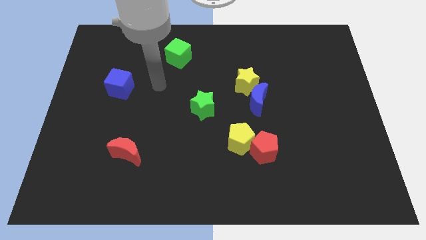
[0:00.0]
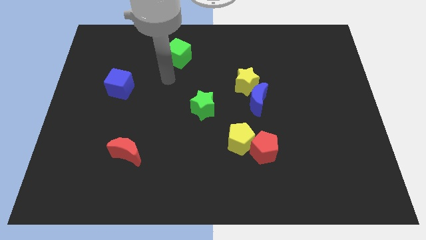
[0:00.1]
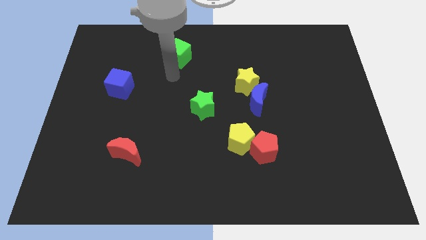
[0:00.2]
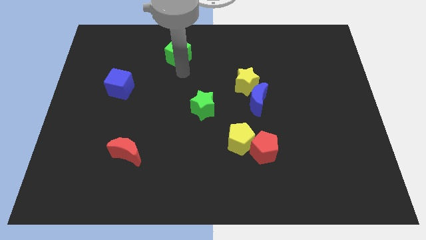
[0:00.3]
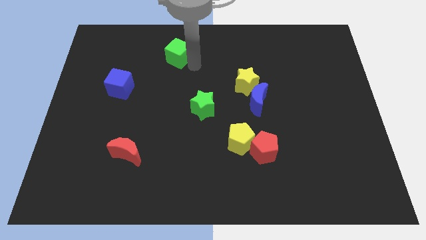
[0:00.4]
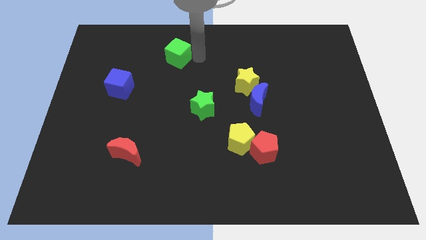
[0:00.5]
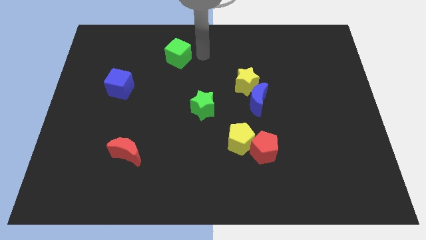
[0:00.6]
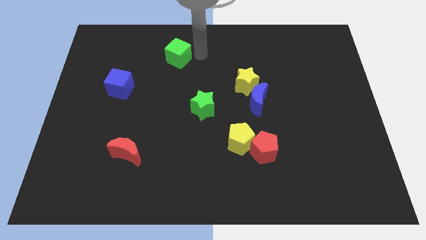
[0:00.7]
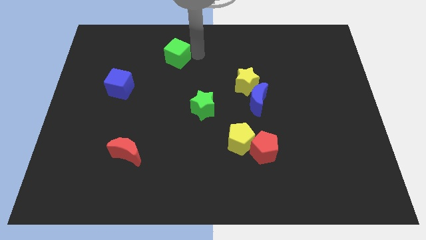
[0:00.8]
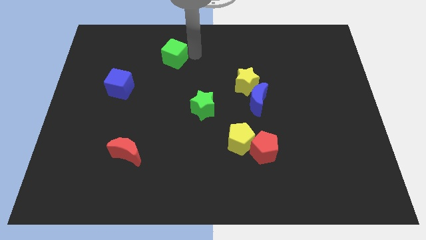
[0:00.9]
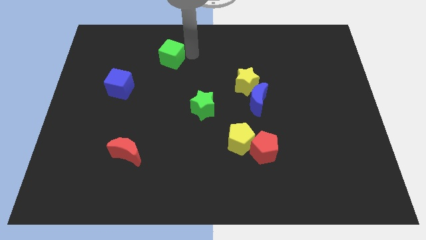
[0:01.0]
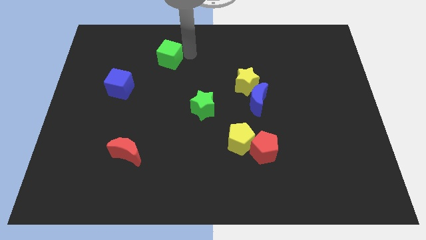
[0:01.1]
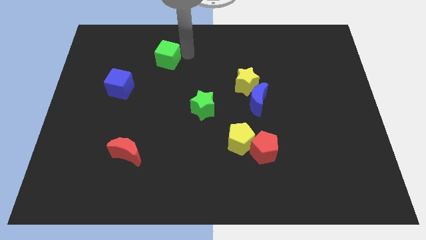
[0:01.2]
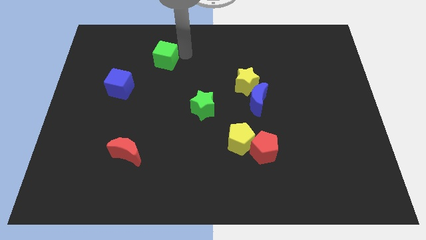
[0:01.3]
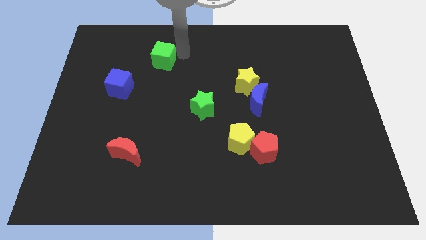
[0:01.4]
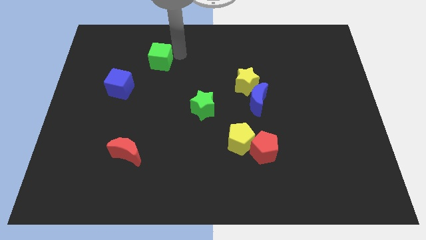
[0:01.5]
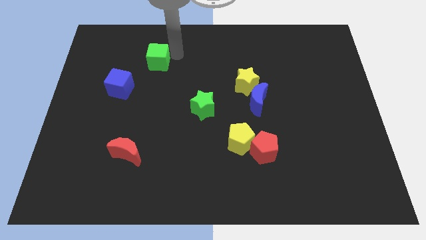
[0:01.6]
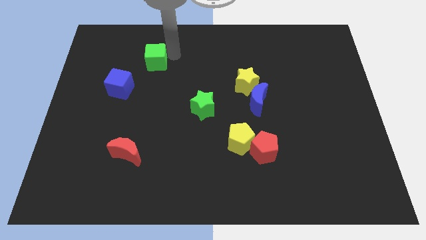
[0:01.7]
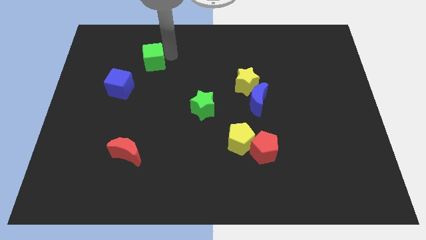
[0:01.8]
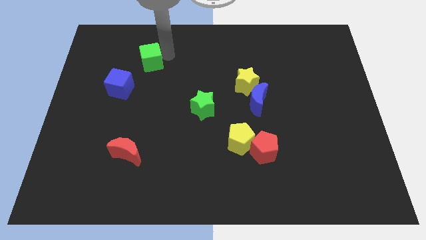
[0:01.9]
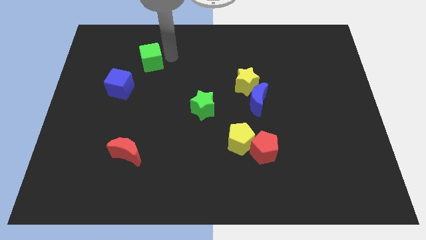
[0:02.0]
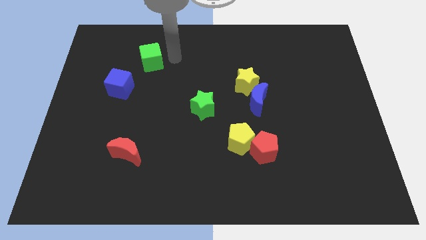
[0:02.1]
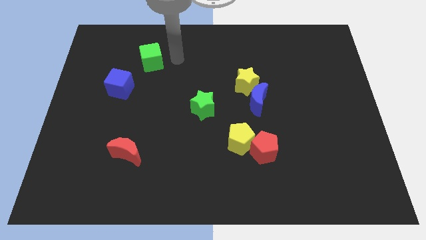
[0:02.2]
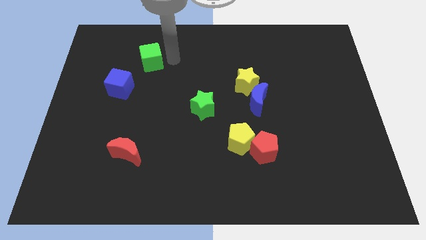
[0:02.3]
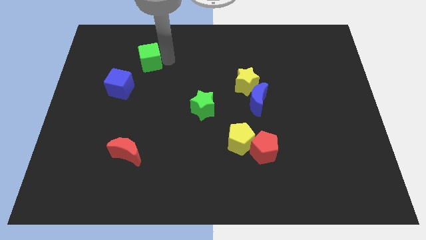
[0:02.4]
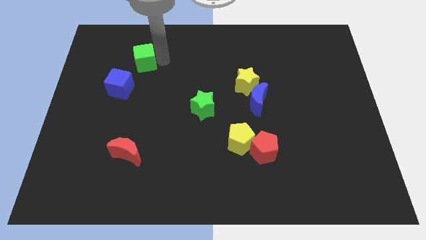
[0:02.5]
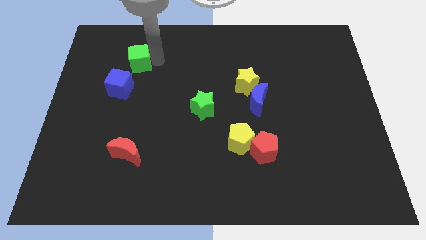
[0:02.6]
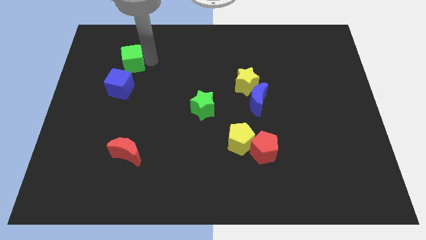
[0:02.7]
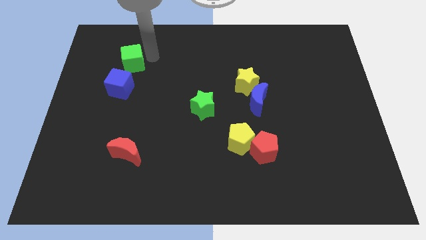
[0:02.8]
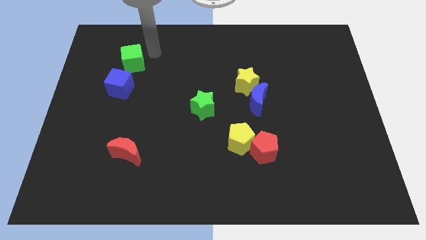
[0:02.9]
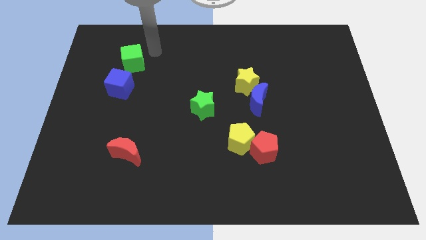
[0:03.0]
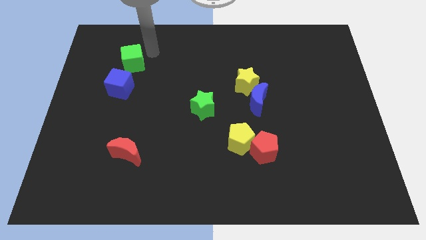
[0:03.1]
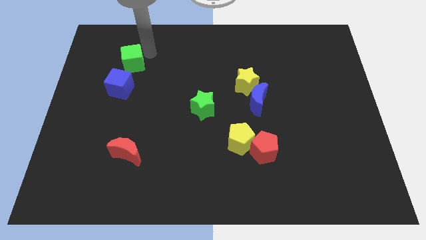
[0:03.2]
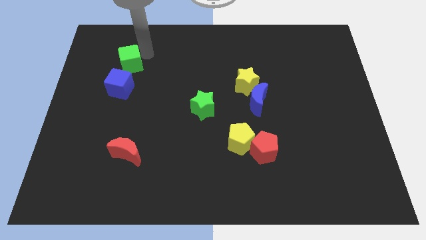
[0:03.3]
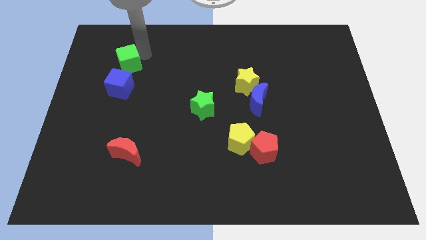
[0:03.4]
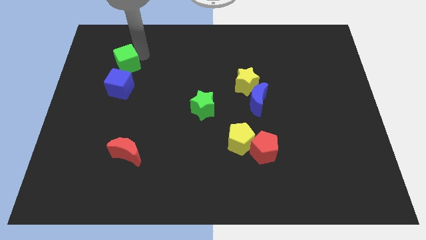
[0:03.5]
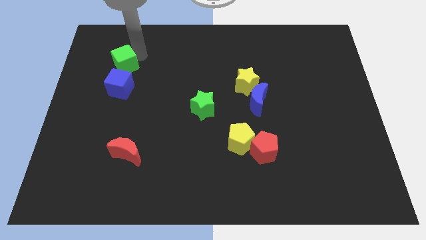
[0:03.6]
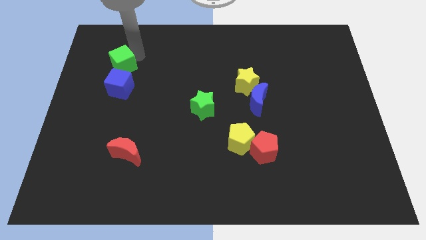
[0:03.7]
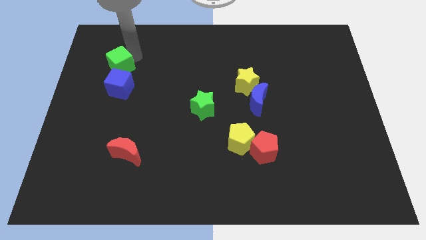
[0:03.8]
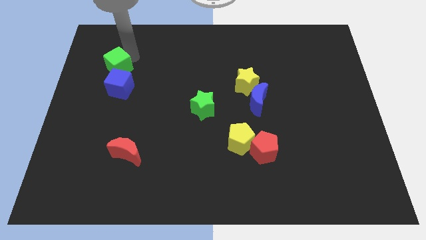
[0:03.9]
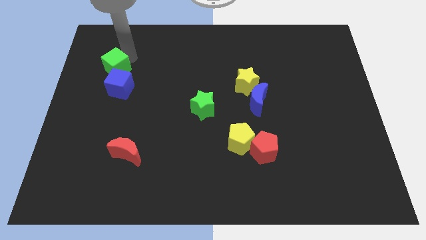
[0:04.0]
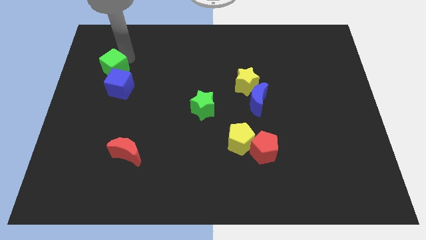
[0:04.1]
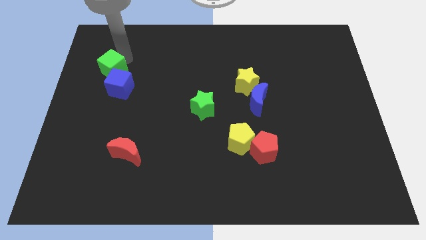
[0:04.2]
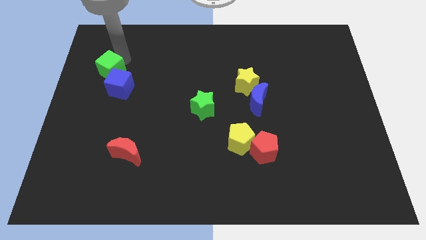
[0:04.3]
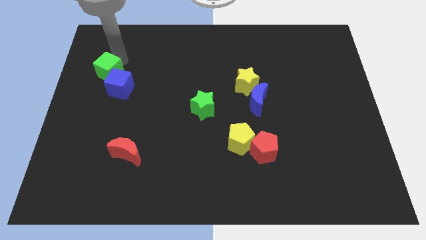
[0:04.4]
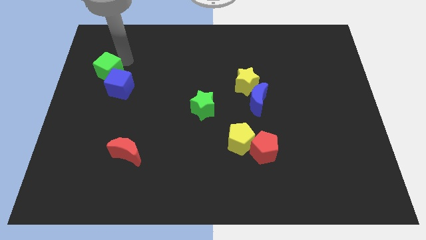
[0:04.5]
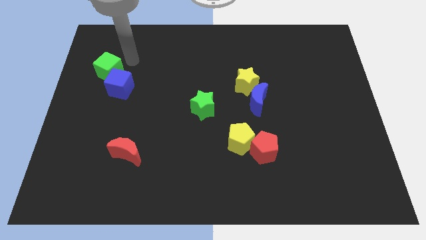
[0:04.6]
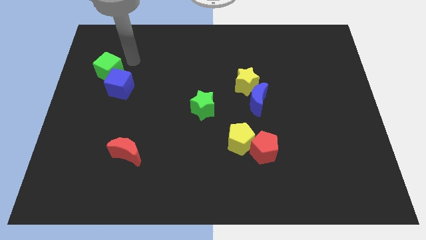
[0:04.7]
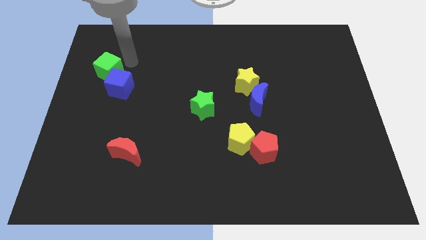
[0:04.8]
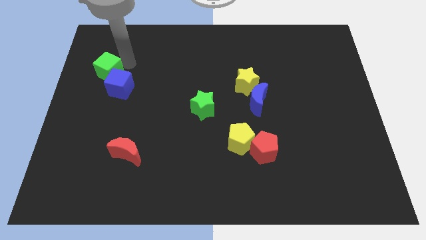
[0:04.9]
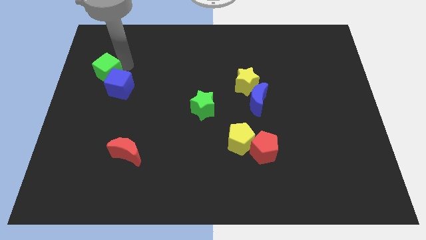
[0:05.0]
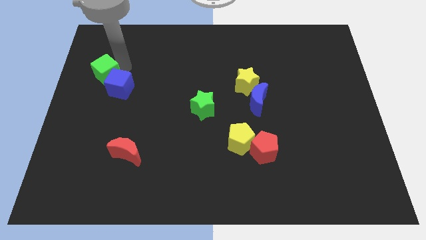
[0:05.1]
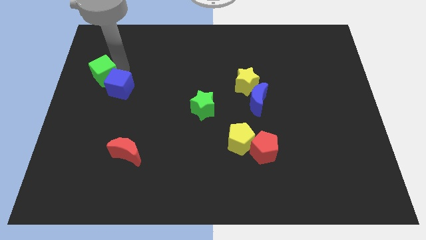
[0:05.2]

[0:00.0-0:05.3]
slide the green cube to the center left

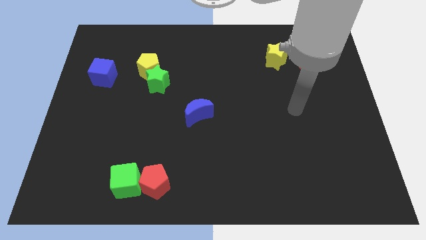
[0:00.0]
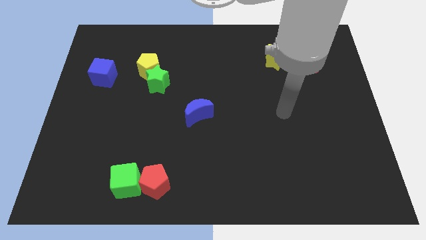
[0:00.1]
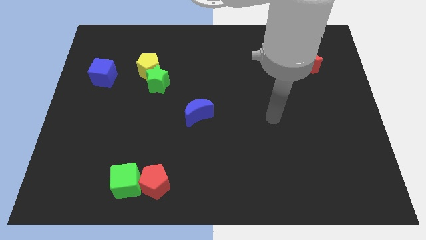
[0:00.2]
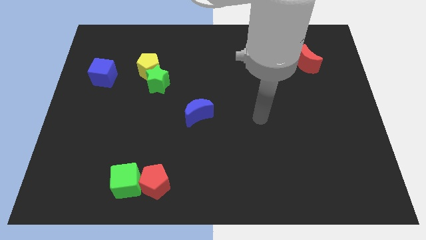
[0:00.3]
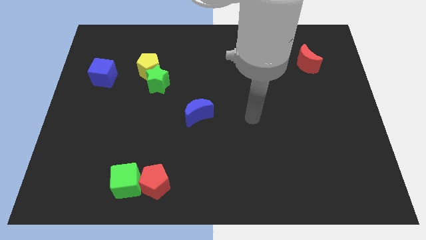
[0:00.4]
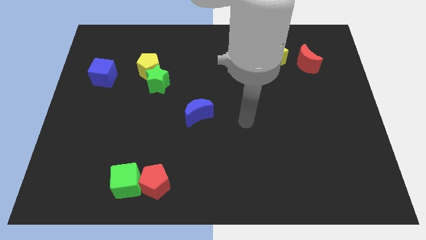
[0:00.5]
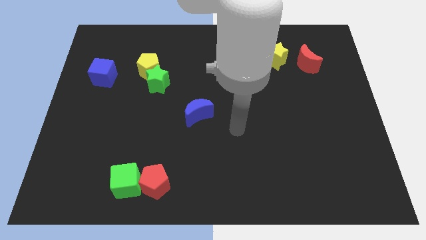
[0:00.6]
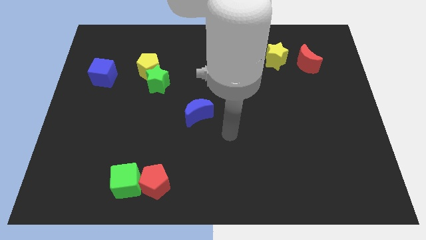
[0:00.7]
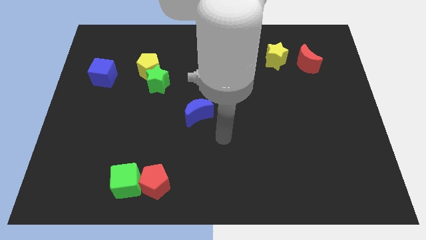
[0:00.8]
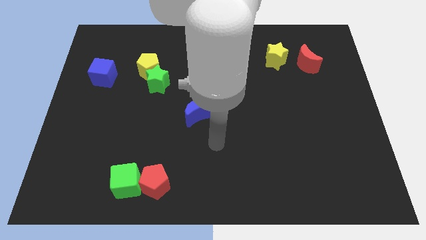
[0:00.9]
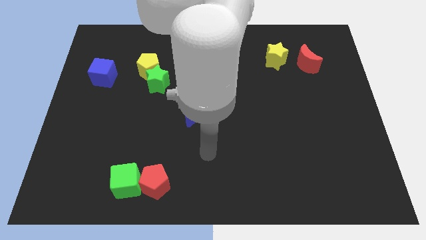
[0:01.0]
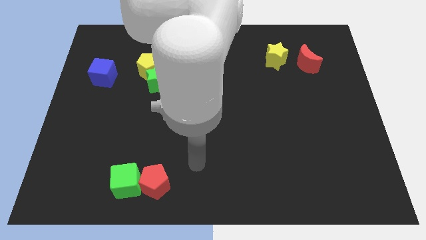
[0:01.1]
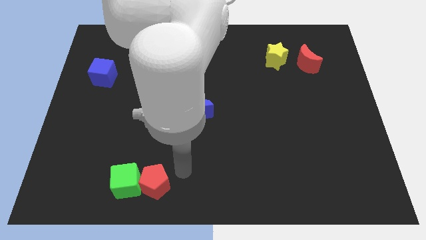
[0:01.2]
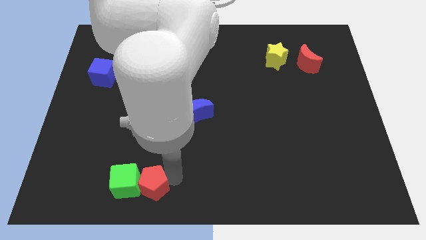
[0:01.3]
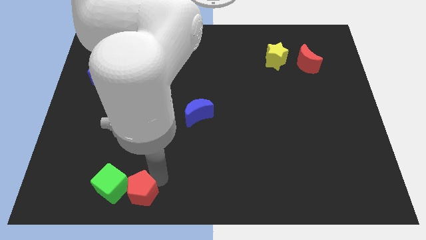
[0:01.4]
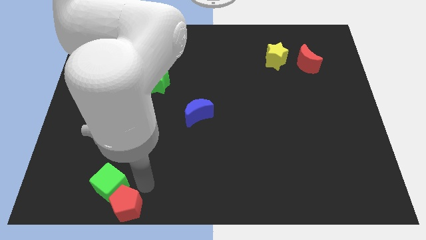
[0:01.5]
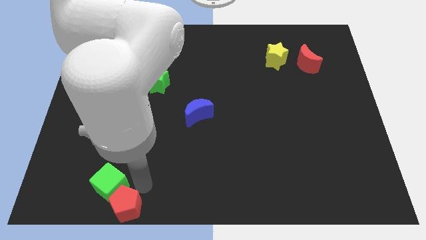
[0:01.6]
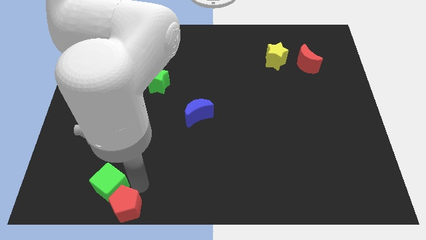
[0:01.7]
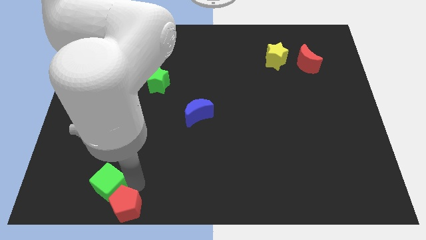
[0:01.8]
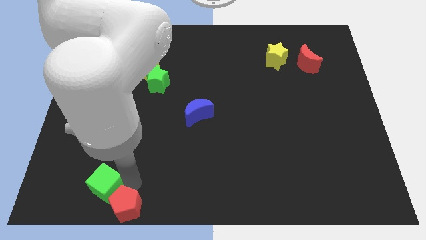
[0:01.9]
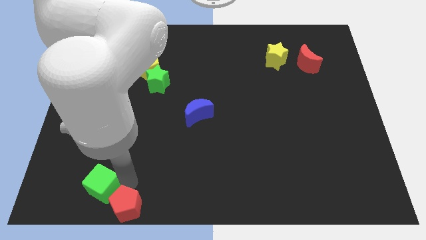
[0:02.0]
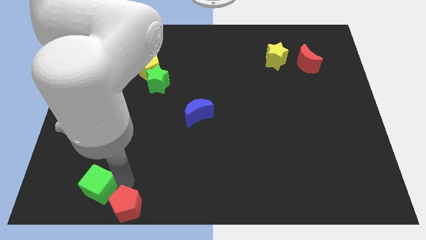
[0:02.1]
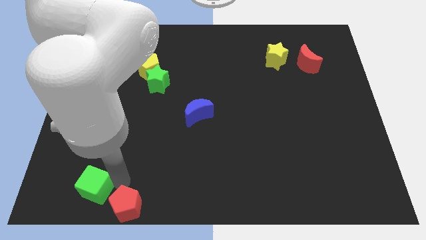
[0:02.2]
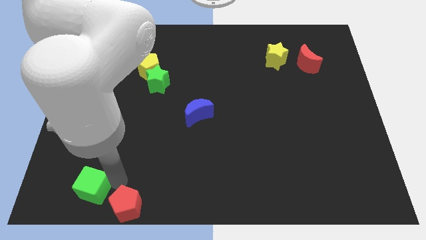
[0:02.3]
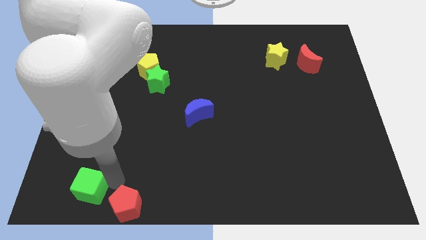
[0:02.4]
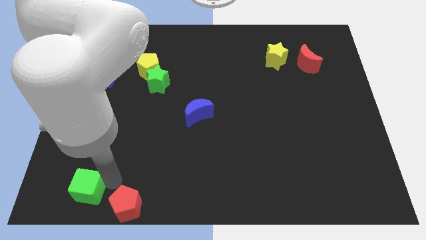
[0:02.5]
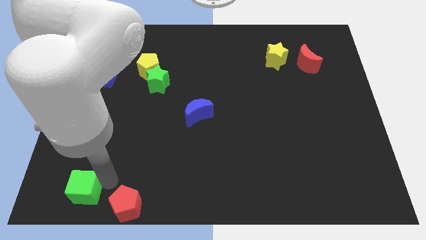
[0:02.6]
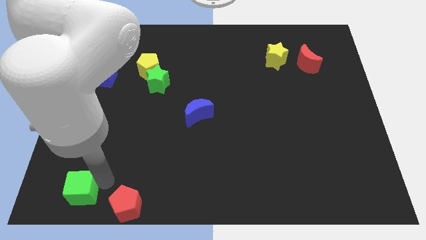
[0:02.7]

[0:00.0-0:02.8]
slide the green cube to the bottom left corner
